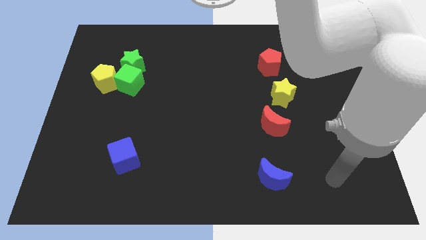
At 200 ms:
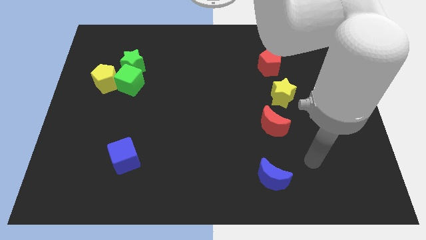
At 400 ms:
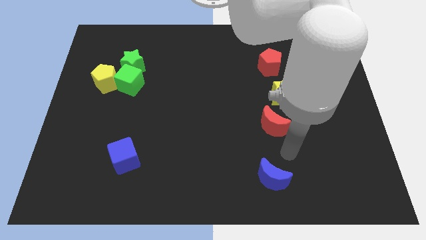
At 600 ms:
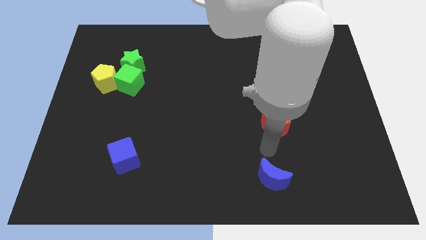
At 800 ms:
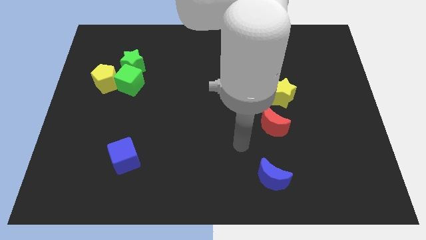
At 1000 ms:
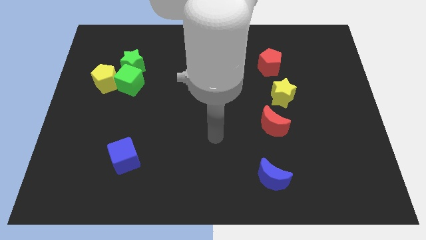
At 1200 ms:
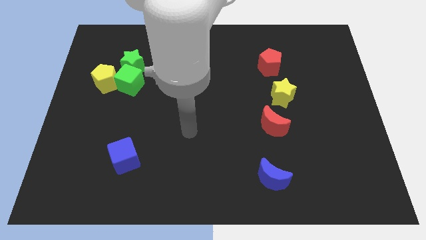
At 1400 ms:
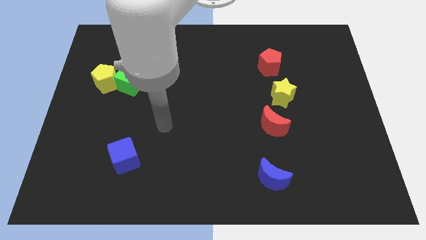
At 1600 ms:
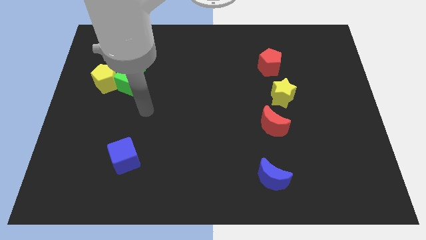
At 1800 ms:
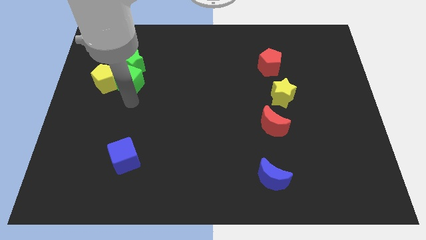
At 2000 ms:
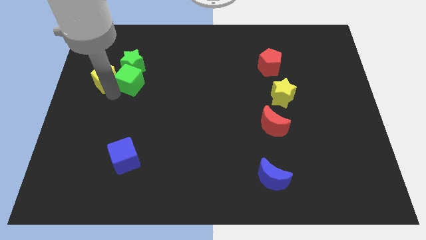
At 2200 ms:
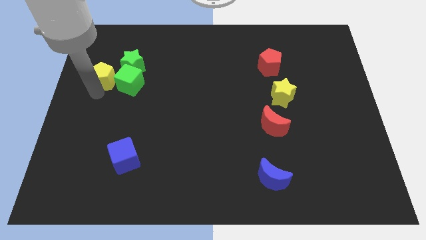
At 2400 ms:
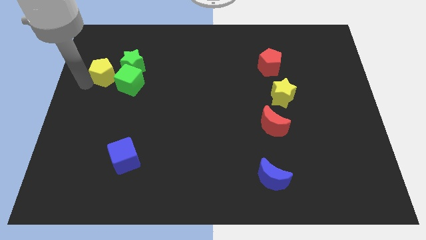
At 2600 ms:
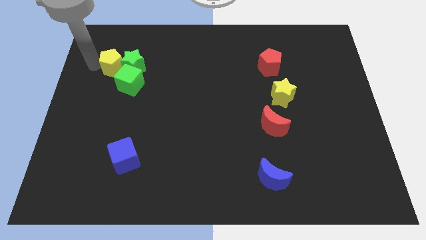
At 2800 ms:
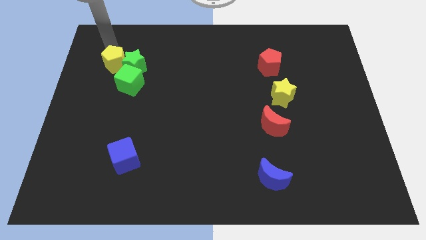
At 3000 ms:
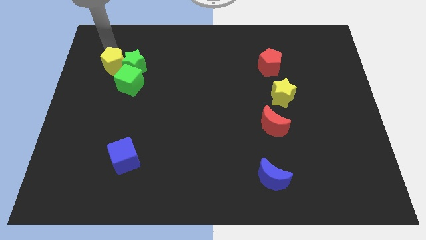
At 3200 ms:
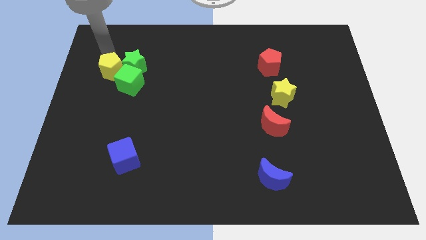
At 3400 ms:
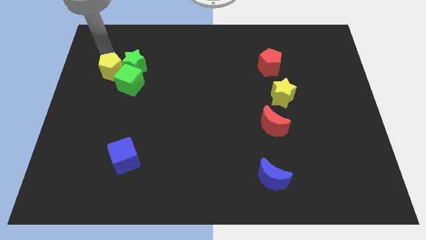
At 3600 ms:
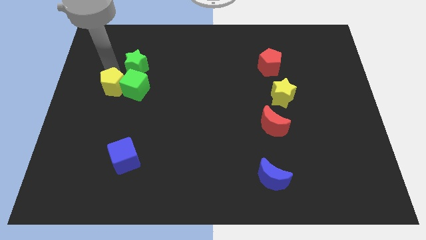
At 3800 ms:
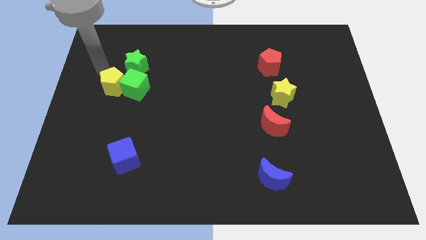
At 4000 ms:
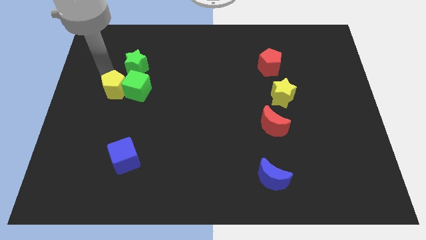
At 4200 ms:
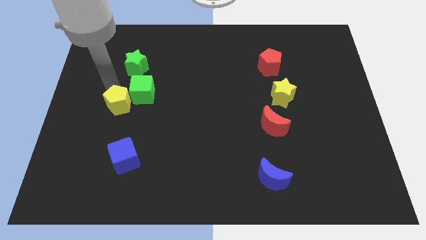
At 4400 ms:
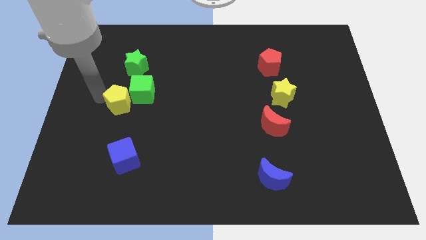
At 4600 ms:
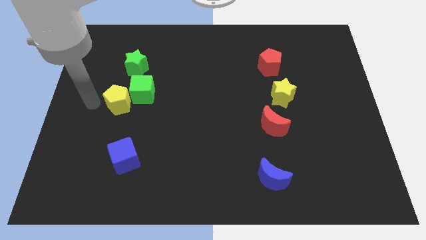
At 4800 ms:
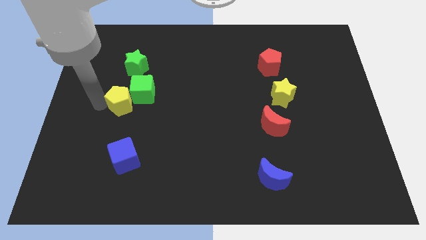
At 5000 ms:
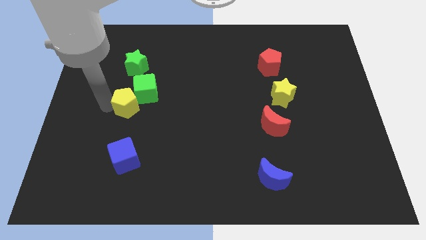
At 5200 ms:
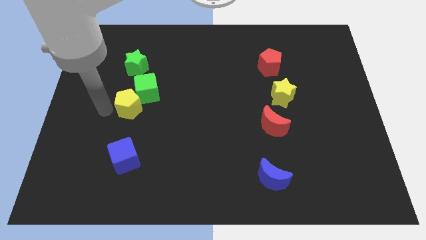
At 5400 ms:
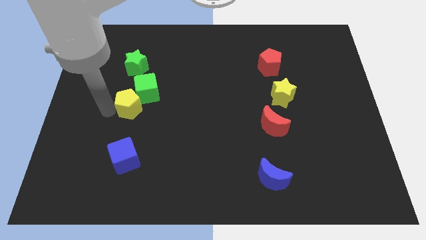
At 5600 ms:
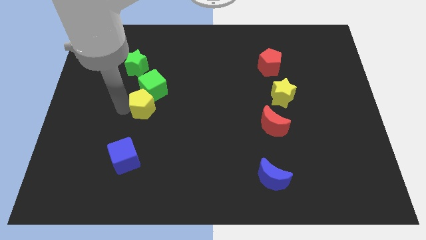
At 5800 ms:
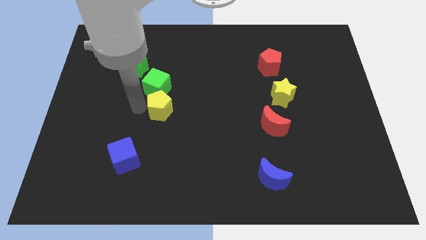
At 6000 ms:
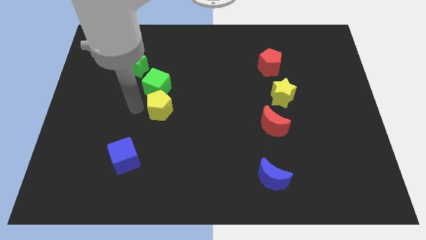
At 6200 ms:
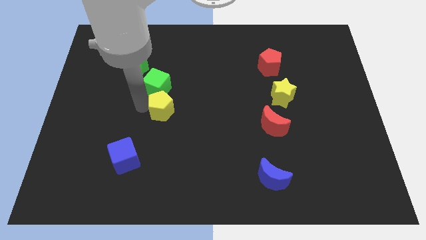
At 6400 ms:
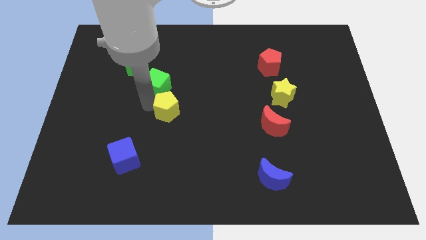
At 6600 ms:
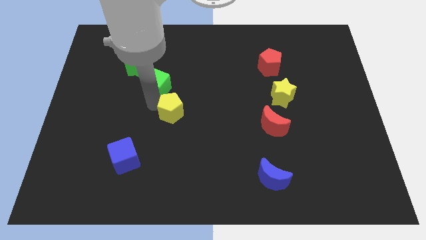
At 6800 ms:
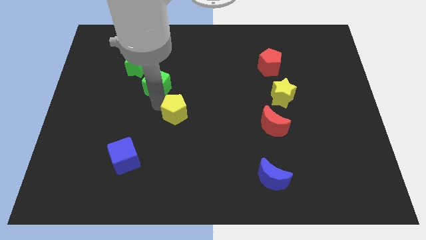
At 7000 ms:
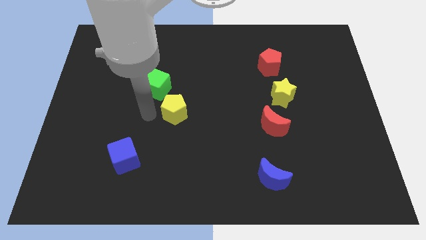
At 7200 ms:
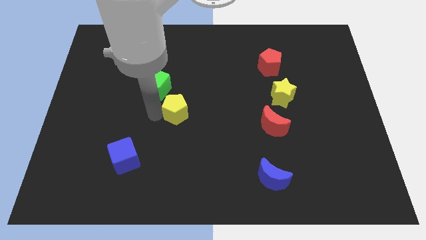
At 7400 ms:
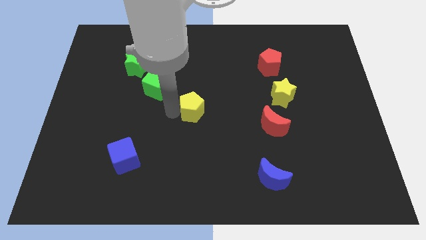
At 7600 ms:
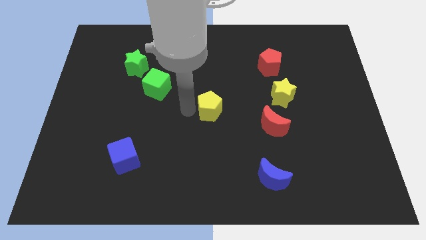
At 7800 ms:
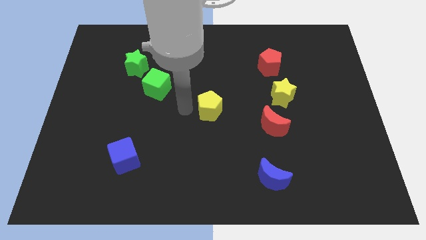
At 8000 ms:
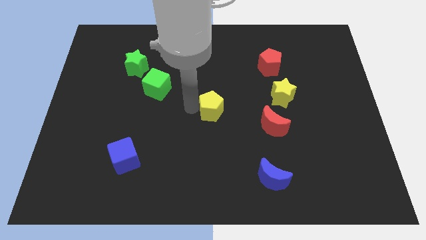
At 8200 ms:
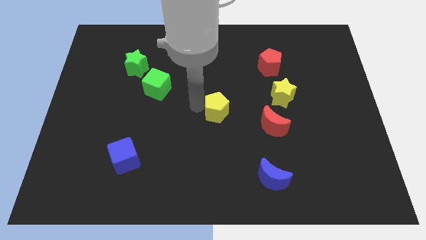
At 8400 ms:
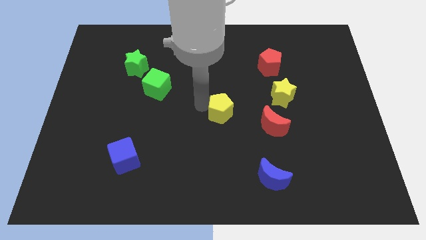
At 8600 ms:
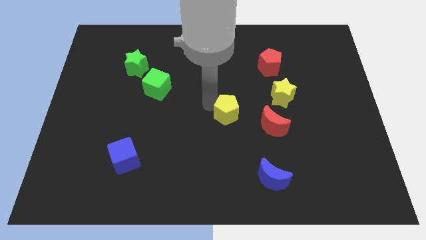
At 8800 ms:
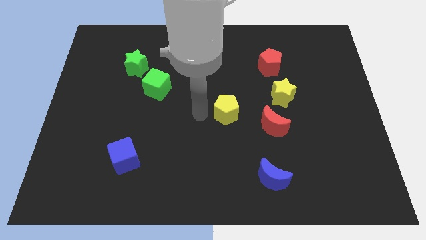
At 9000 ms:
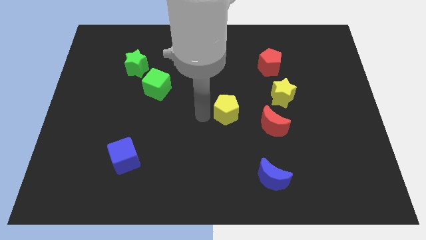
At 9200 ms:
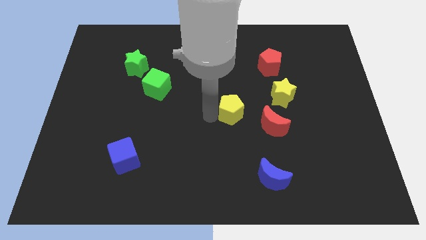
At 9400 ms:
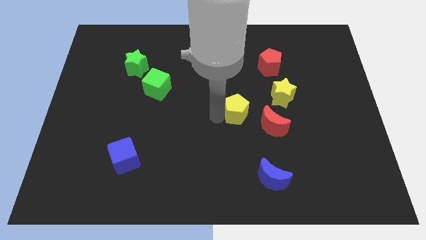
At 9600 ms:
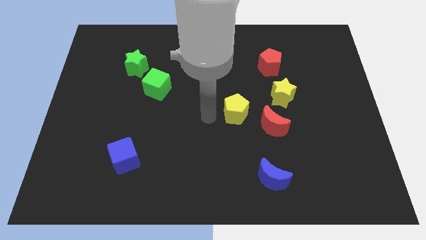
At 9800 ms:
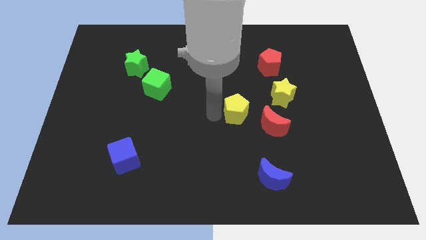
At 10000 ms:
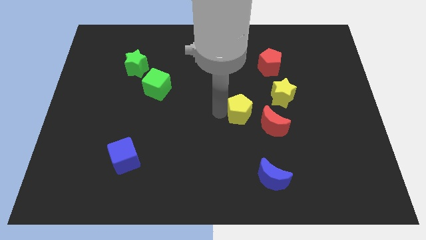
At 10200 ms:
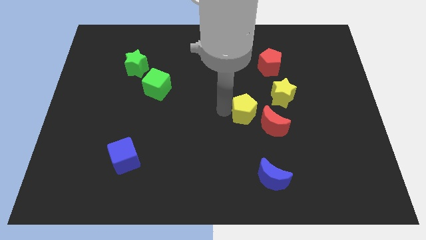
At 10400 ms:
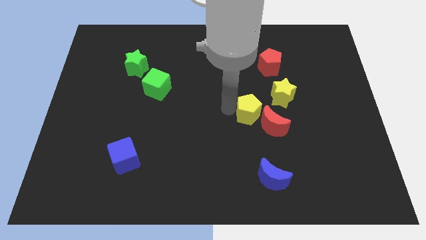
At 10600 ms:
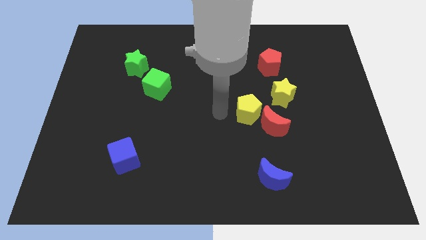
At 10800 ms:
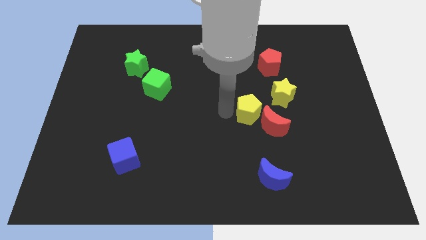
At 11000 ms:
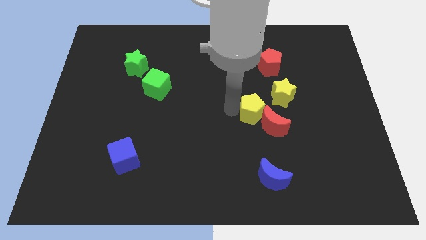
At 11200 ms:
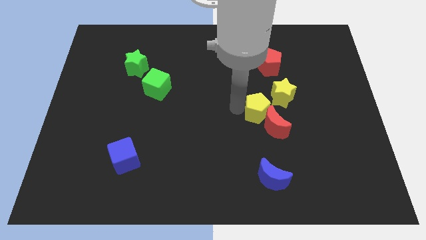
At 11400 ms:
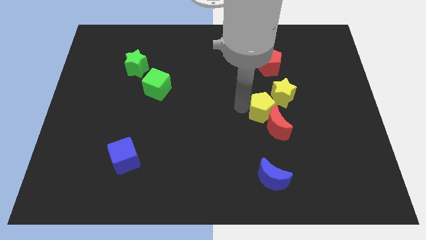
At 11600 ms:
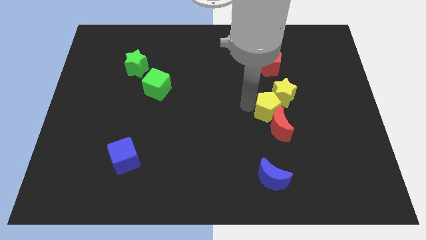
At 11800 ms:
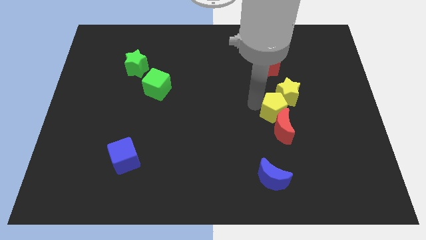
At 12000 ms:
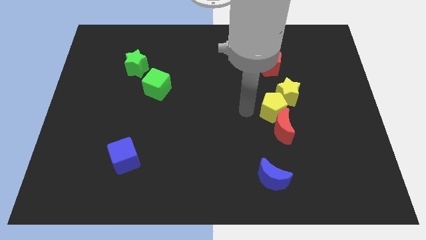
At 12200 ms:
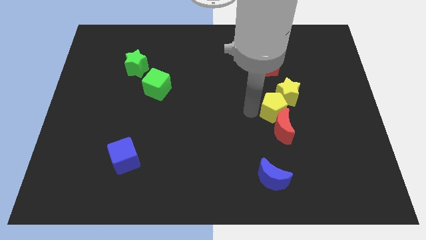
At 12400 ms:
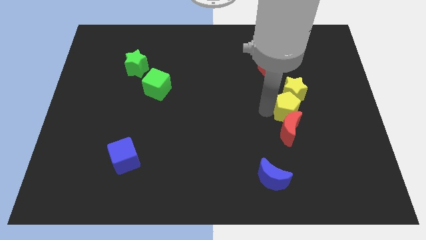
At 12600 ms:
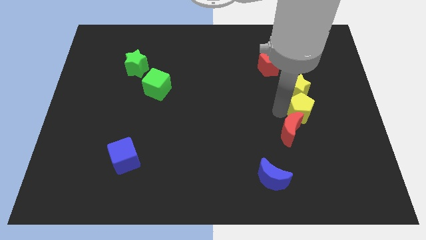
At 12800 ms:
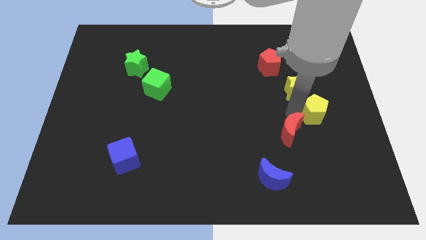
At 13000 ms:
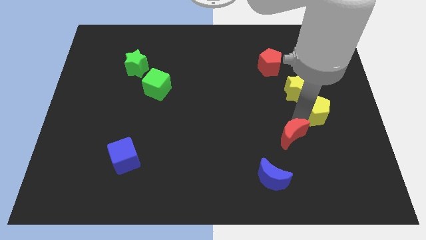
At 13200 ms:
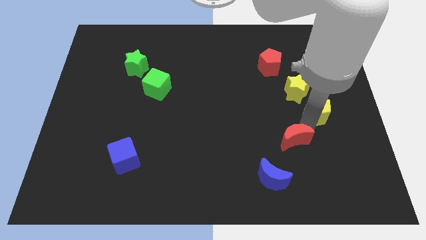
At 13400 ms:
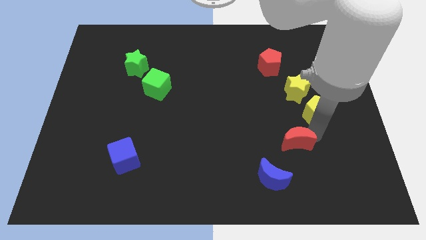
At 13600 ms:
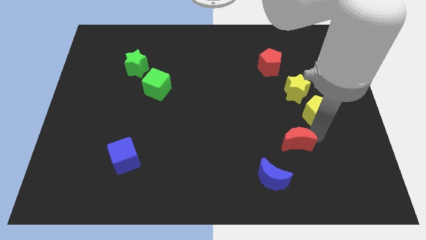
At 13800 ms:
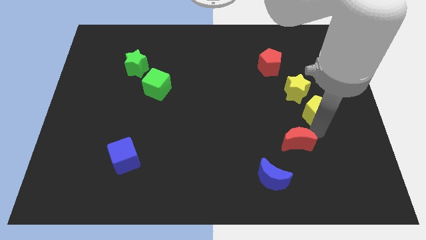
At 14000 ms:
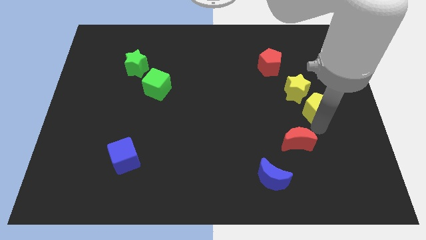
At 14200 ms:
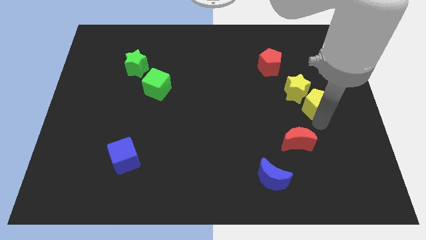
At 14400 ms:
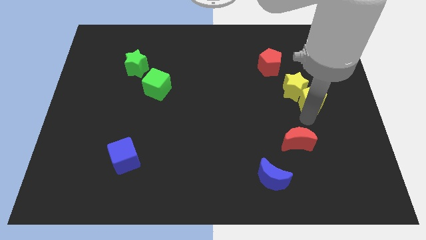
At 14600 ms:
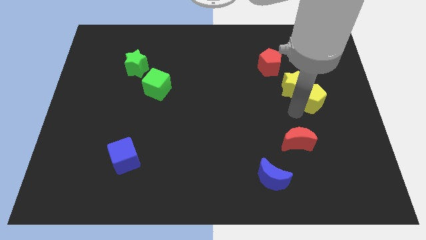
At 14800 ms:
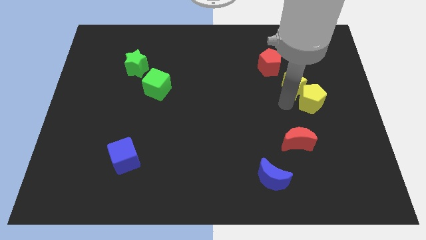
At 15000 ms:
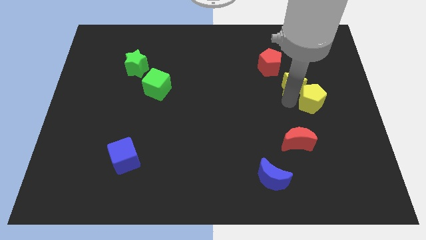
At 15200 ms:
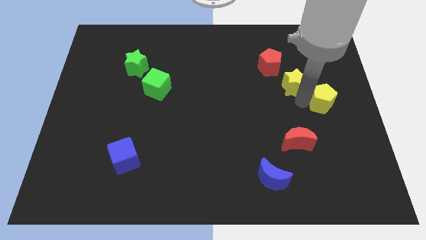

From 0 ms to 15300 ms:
push the yellow pentagon to the right side of the board
